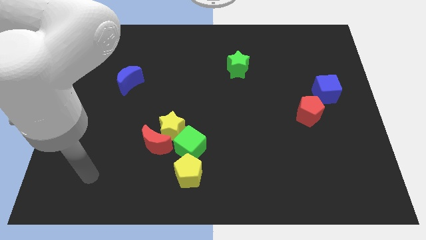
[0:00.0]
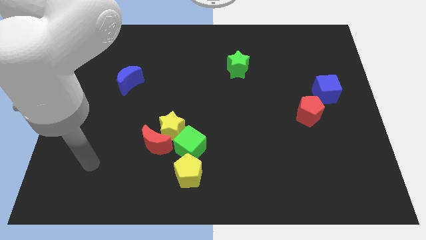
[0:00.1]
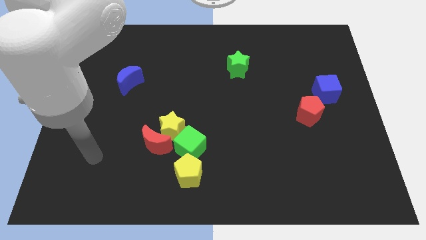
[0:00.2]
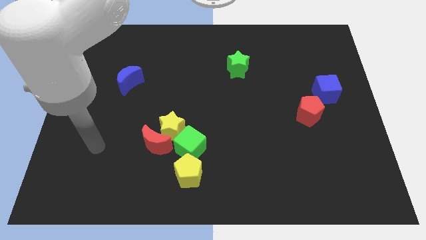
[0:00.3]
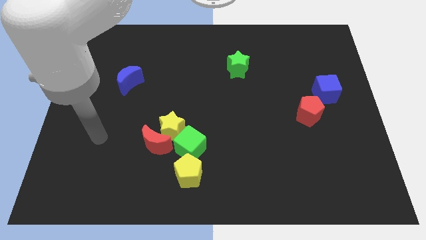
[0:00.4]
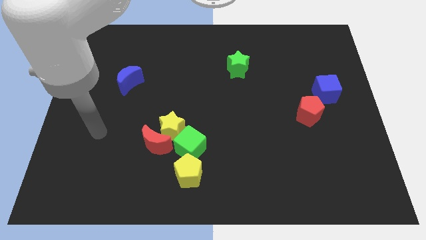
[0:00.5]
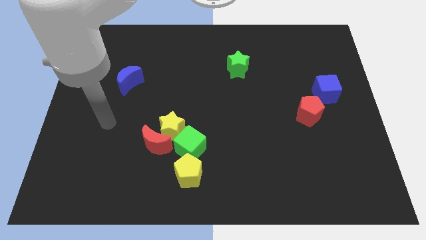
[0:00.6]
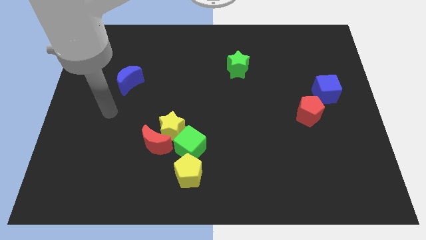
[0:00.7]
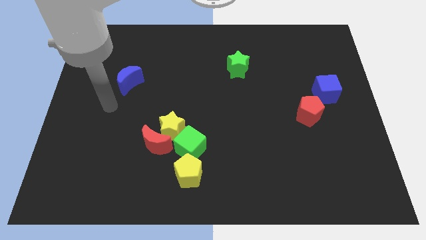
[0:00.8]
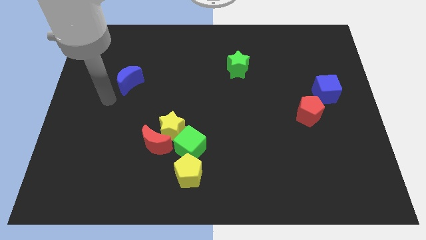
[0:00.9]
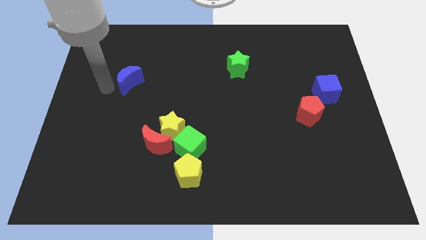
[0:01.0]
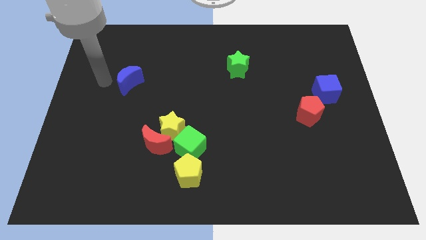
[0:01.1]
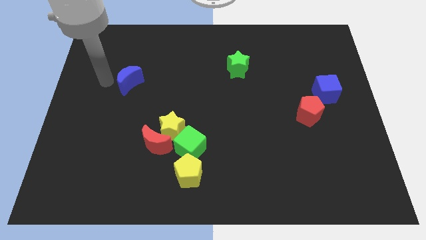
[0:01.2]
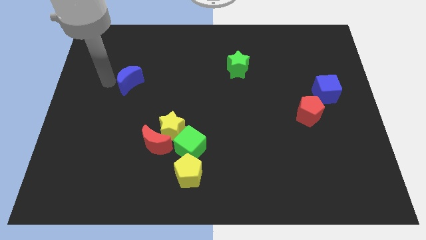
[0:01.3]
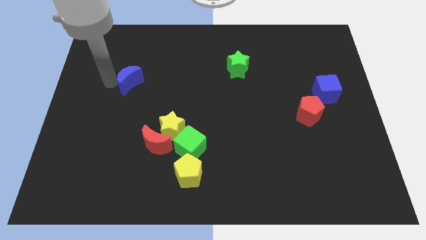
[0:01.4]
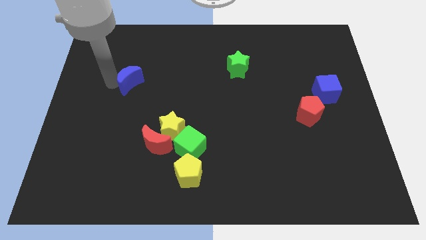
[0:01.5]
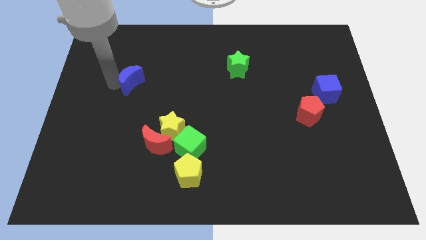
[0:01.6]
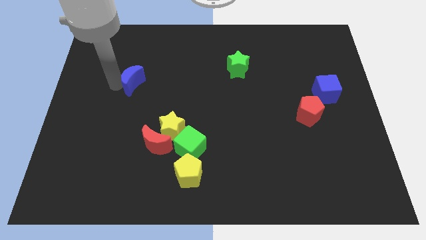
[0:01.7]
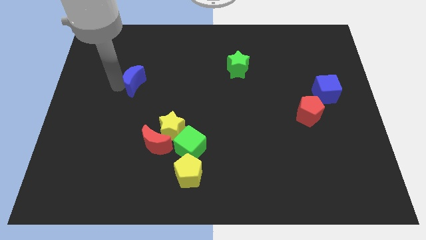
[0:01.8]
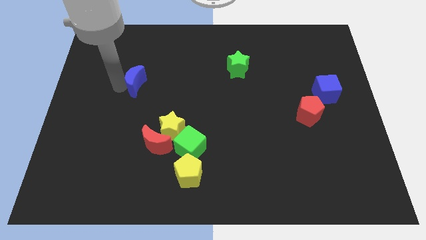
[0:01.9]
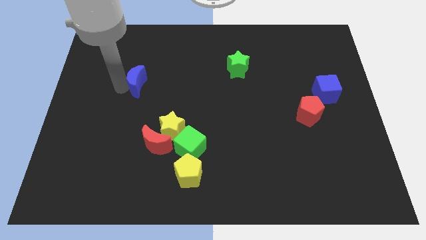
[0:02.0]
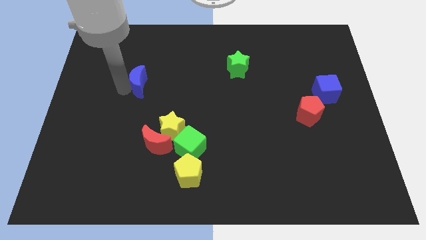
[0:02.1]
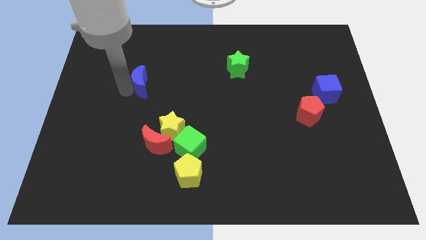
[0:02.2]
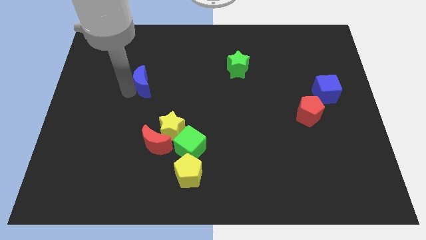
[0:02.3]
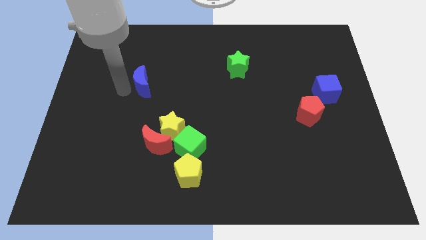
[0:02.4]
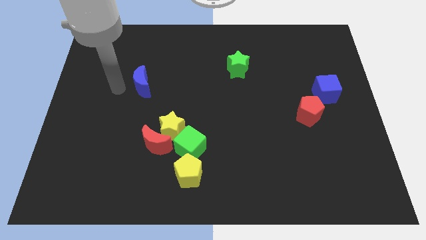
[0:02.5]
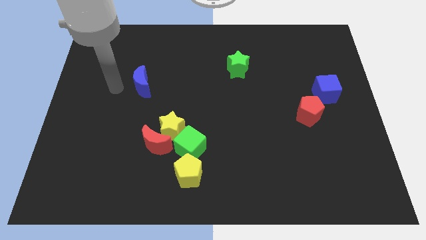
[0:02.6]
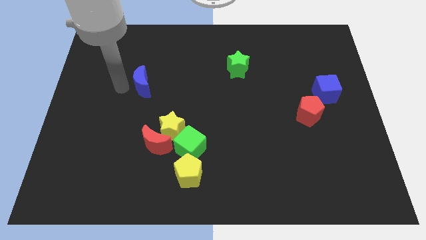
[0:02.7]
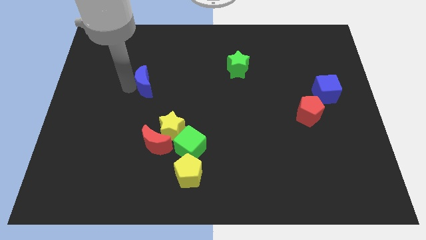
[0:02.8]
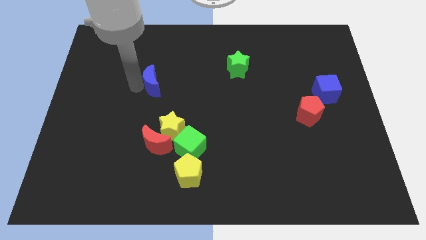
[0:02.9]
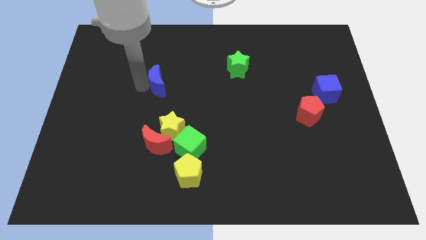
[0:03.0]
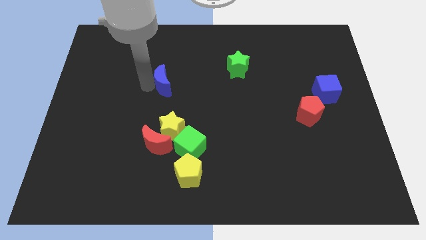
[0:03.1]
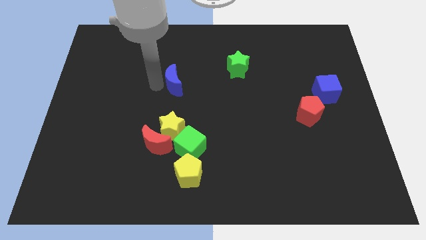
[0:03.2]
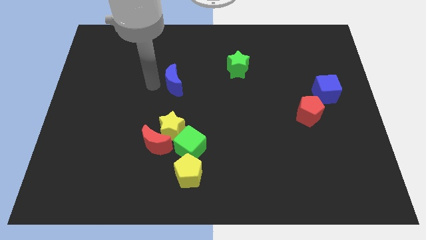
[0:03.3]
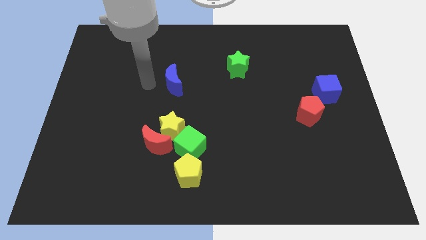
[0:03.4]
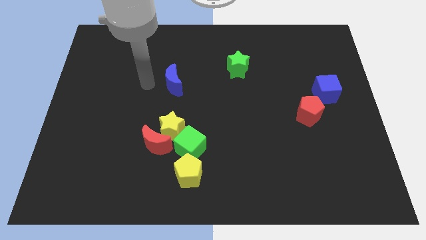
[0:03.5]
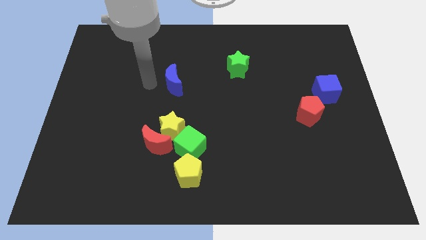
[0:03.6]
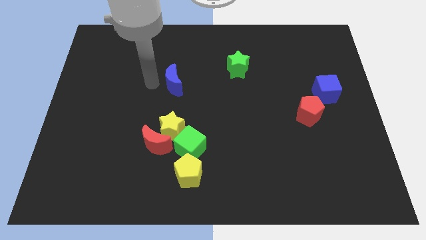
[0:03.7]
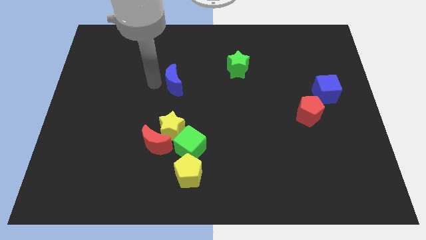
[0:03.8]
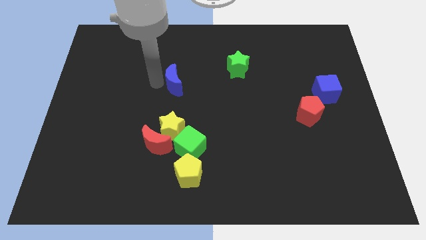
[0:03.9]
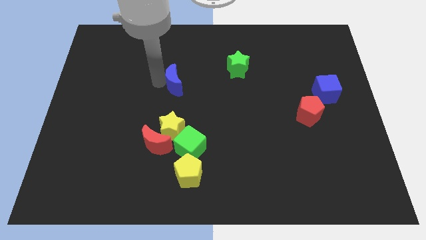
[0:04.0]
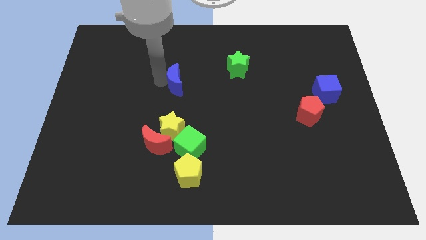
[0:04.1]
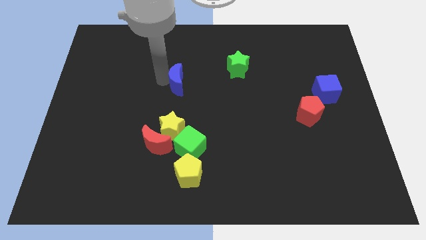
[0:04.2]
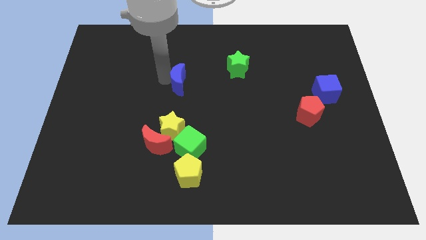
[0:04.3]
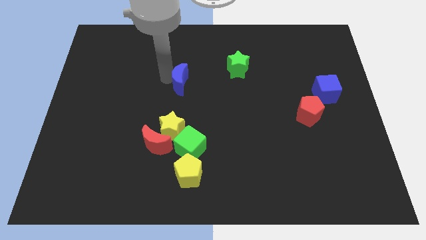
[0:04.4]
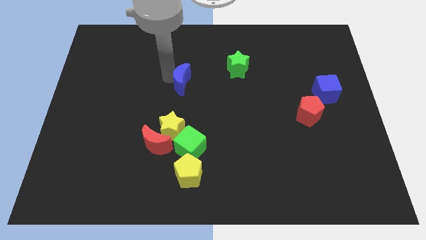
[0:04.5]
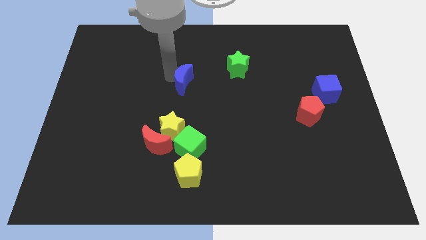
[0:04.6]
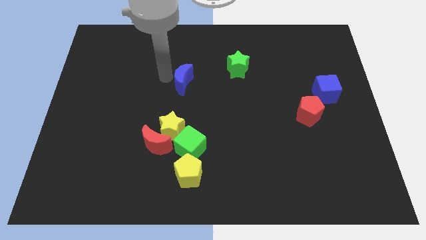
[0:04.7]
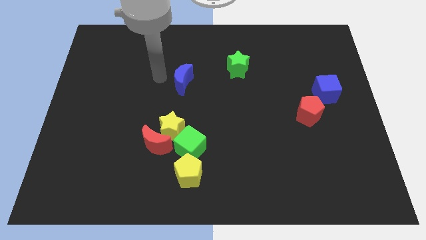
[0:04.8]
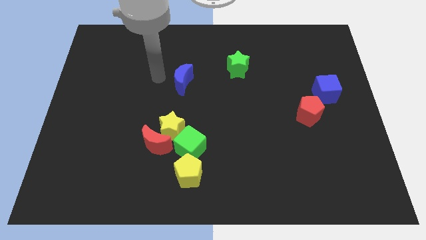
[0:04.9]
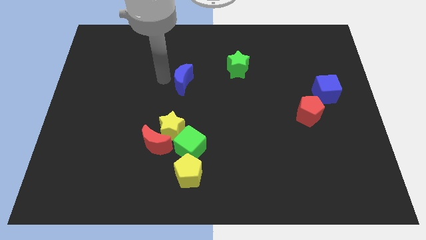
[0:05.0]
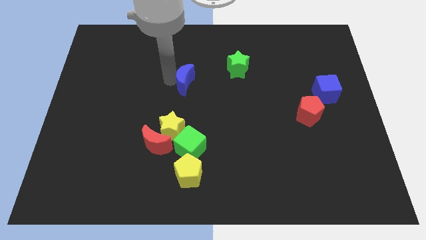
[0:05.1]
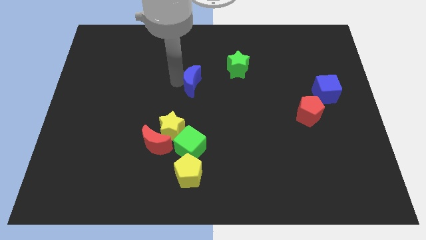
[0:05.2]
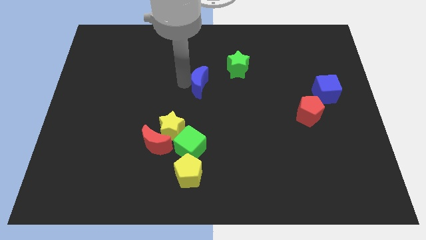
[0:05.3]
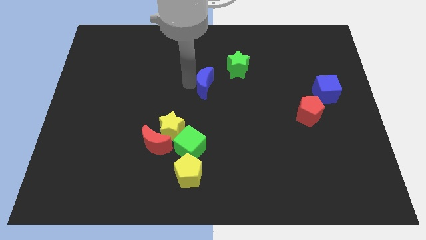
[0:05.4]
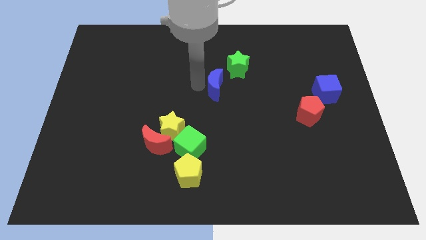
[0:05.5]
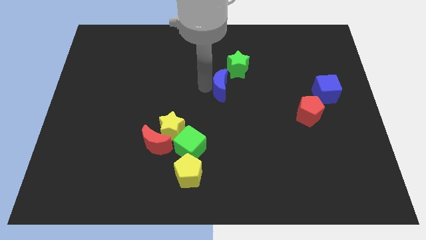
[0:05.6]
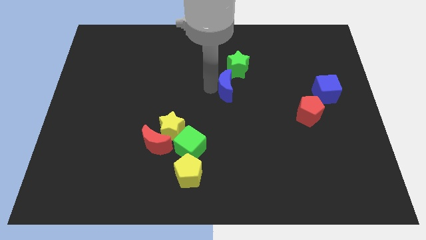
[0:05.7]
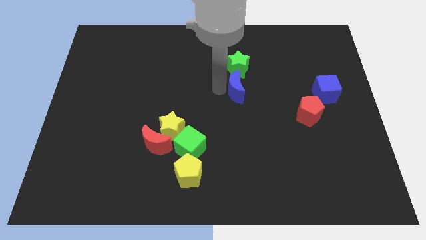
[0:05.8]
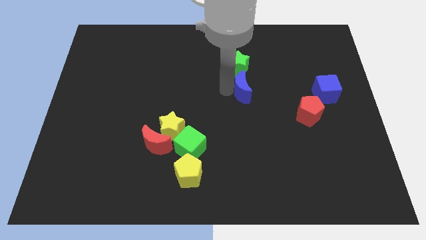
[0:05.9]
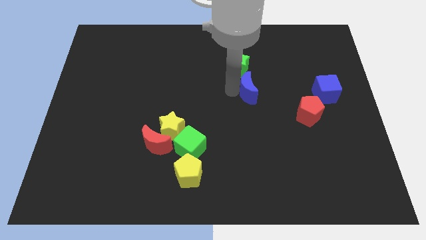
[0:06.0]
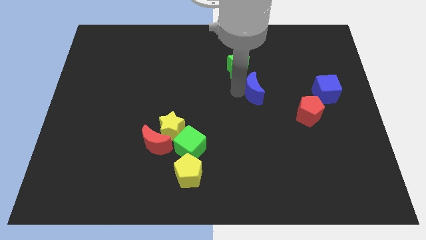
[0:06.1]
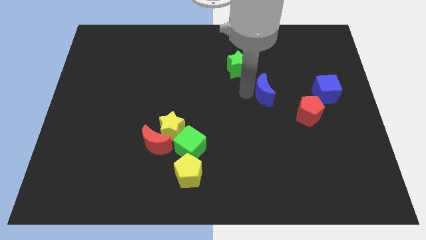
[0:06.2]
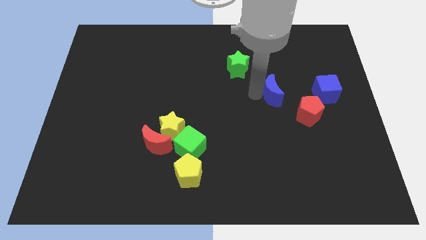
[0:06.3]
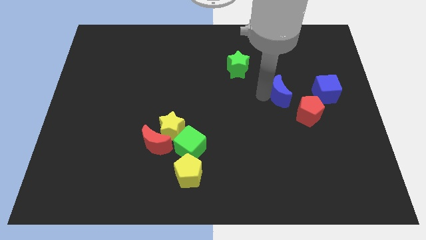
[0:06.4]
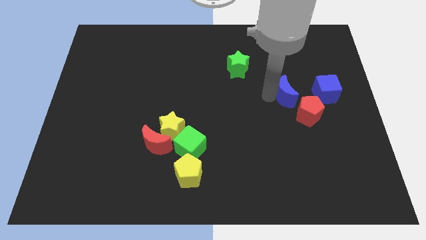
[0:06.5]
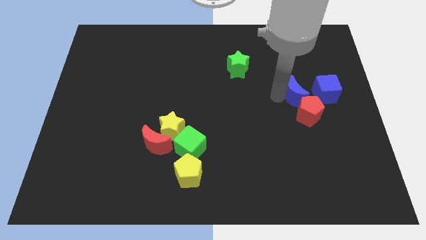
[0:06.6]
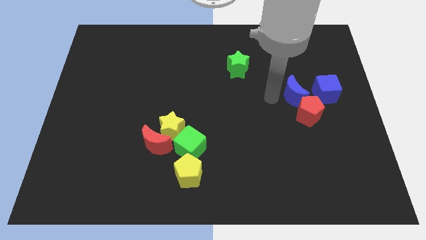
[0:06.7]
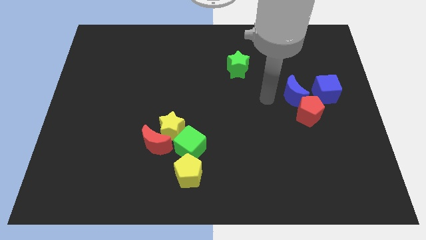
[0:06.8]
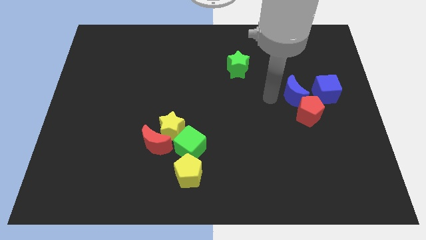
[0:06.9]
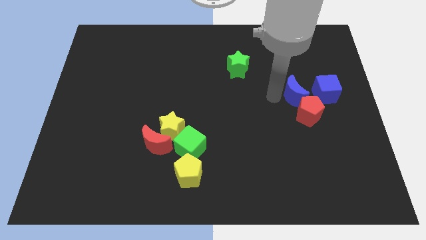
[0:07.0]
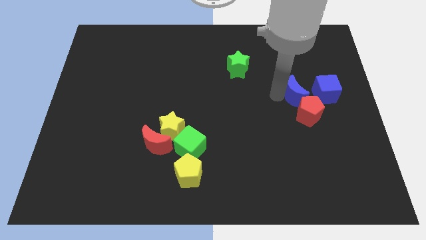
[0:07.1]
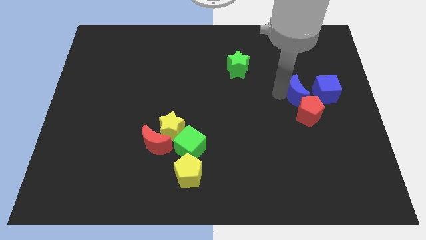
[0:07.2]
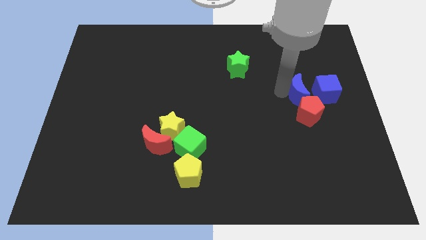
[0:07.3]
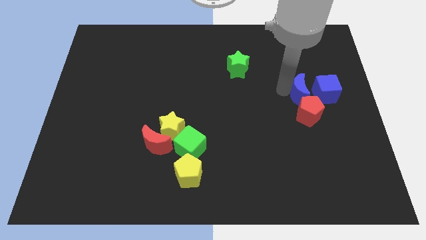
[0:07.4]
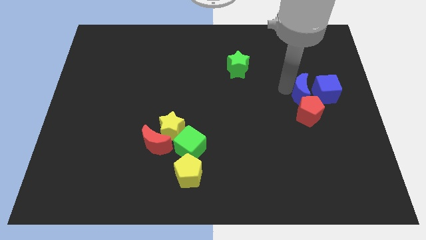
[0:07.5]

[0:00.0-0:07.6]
push the blue moon close to the blue cube
